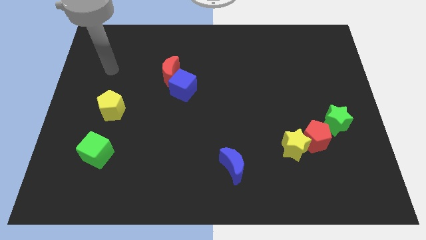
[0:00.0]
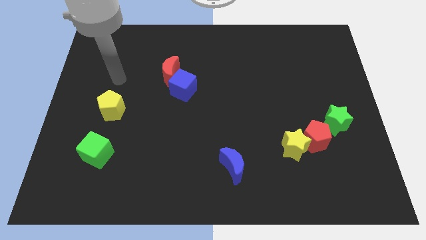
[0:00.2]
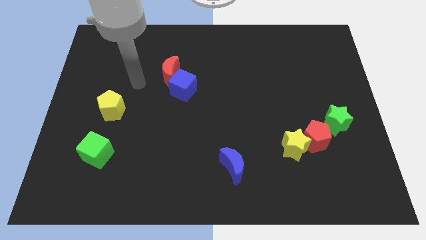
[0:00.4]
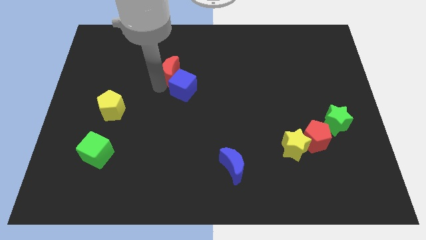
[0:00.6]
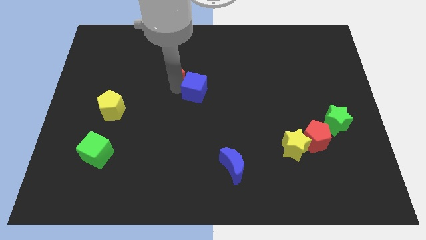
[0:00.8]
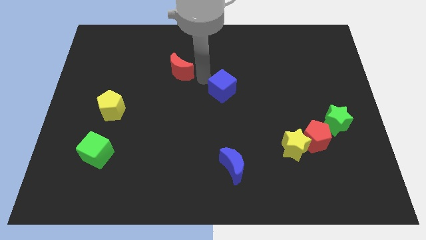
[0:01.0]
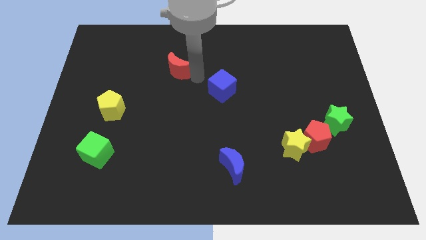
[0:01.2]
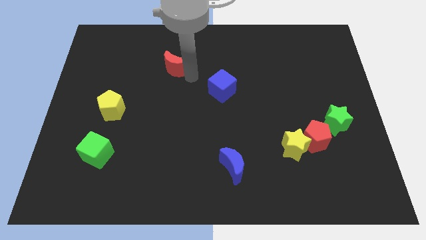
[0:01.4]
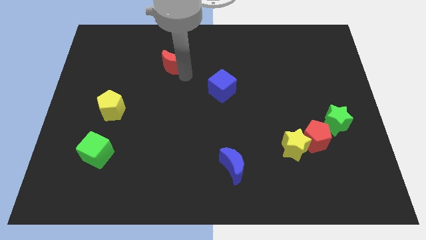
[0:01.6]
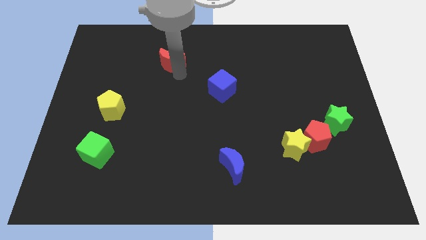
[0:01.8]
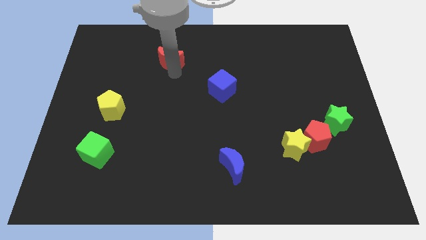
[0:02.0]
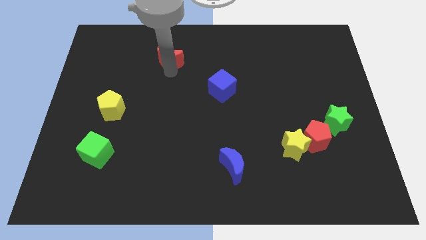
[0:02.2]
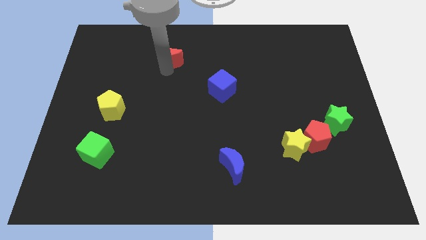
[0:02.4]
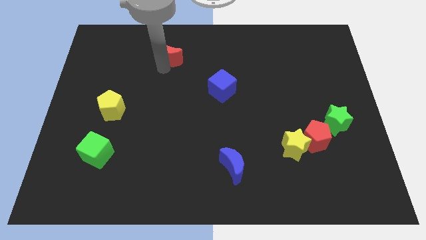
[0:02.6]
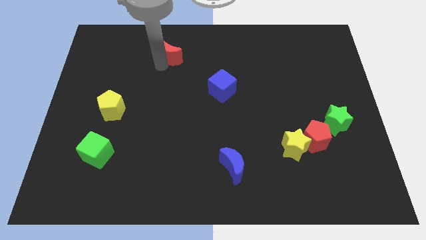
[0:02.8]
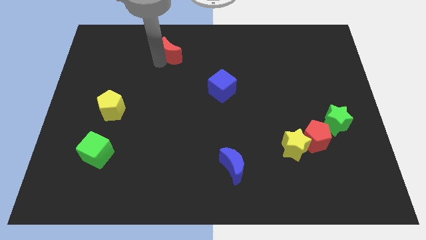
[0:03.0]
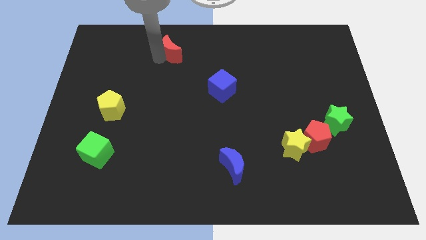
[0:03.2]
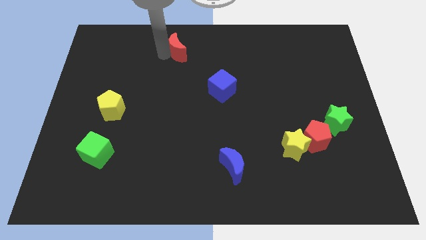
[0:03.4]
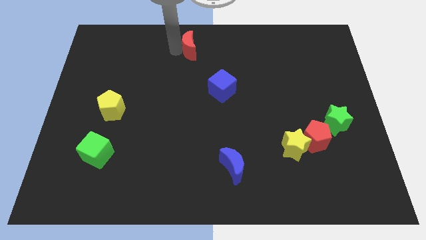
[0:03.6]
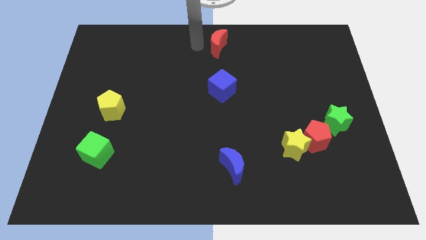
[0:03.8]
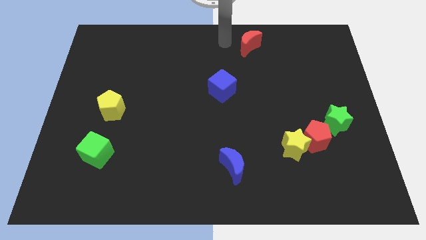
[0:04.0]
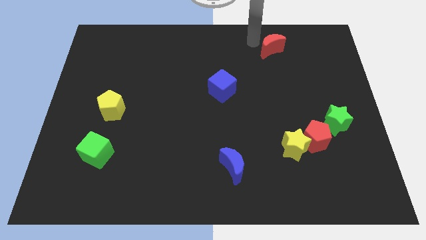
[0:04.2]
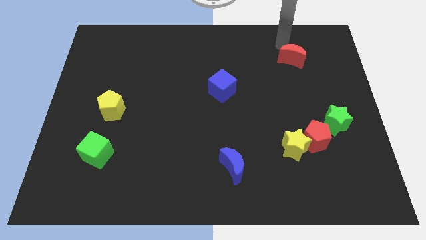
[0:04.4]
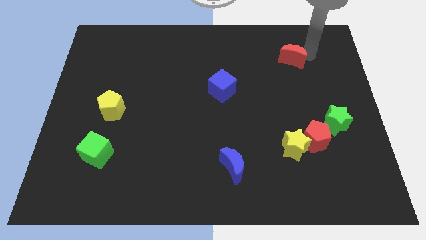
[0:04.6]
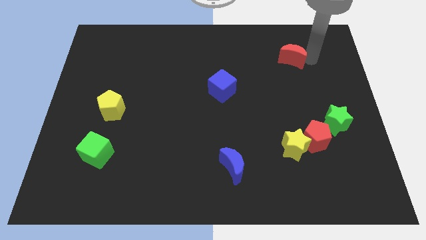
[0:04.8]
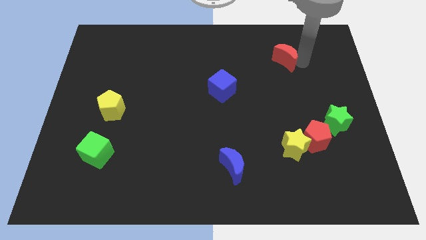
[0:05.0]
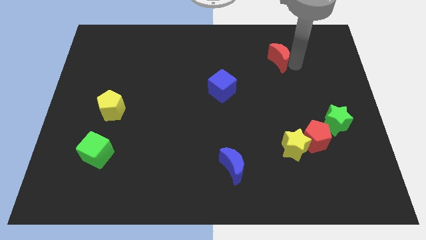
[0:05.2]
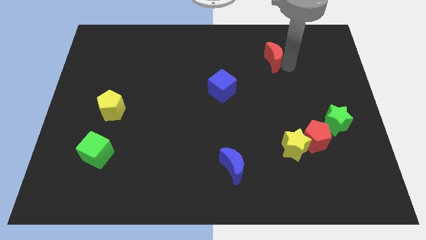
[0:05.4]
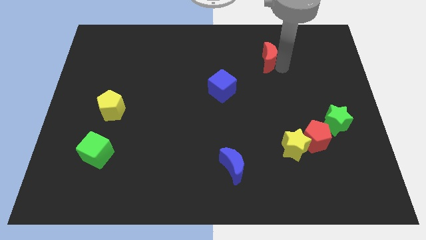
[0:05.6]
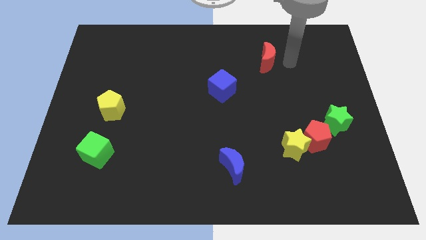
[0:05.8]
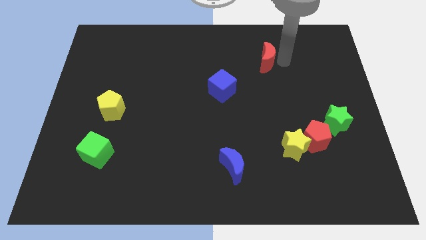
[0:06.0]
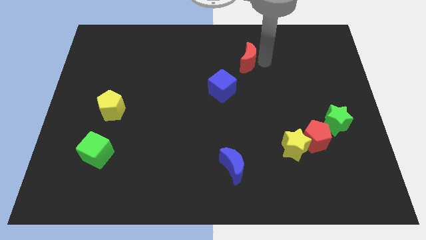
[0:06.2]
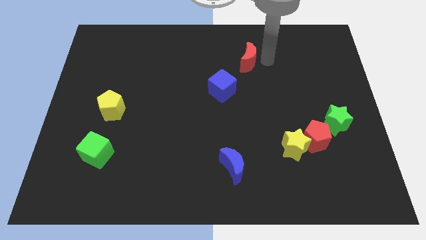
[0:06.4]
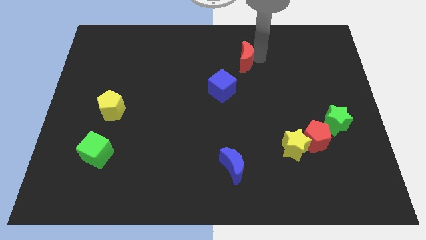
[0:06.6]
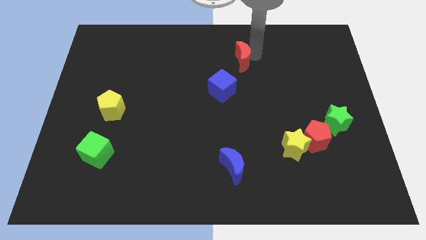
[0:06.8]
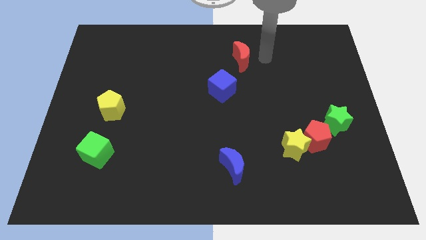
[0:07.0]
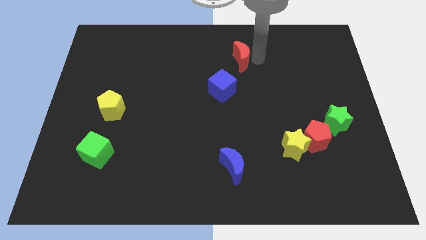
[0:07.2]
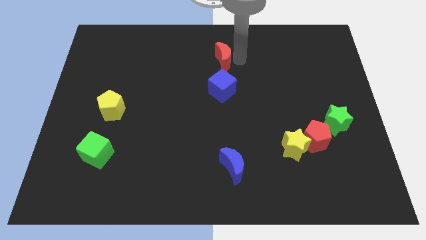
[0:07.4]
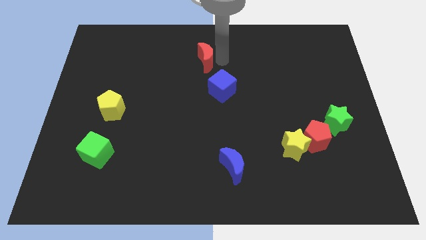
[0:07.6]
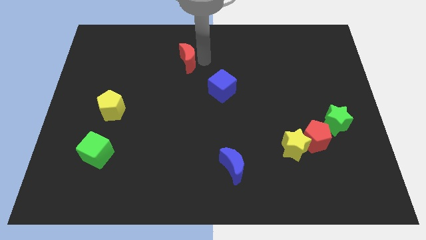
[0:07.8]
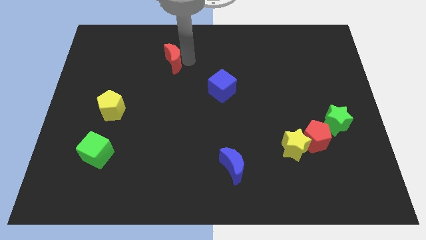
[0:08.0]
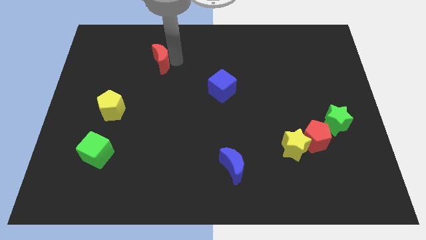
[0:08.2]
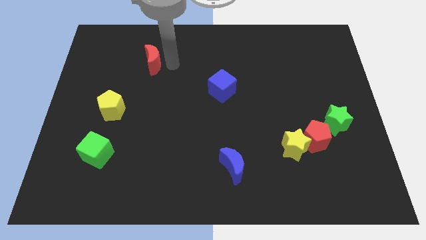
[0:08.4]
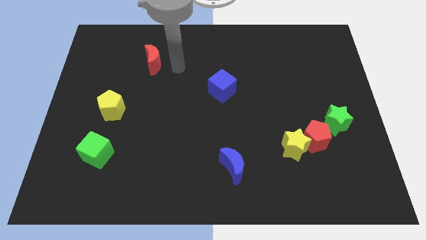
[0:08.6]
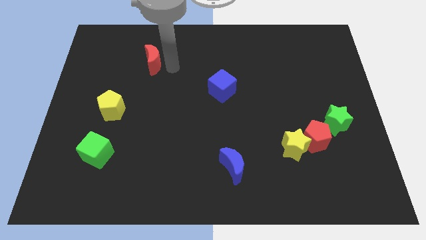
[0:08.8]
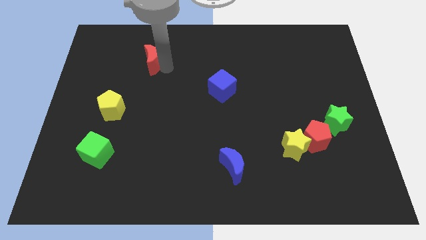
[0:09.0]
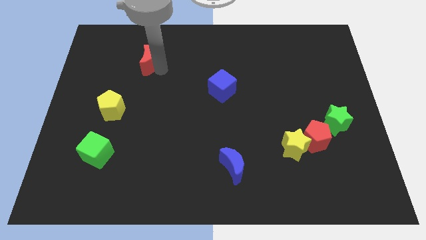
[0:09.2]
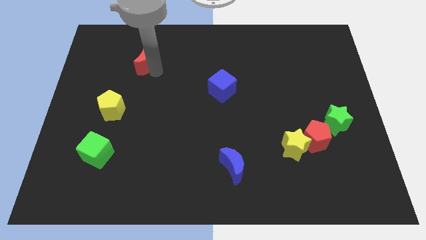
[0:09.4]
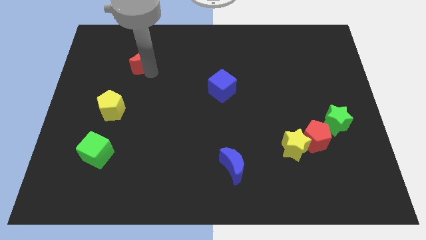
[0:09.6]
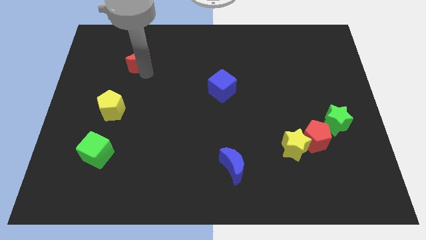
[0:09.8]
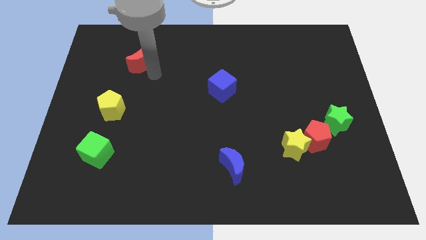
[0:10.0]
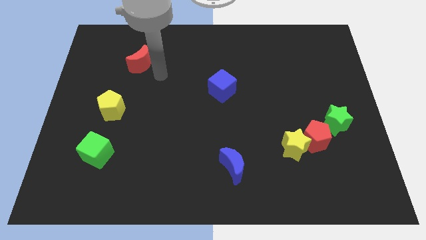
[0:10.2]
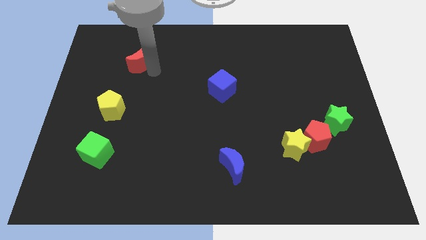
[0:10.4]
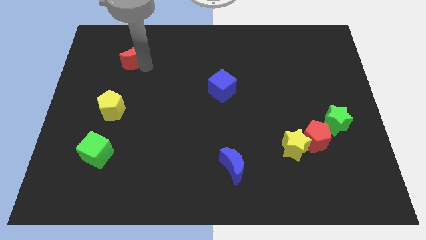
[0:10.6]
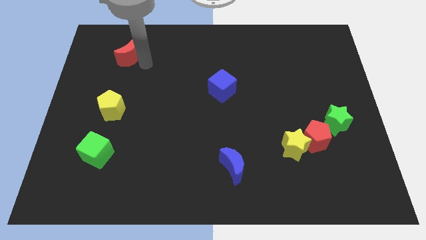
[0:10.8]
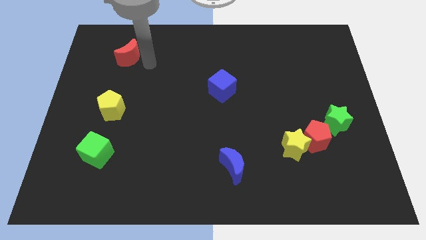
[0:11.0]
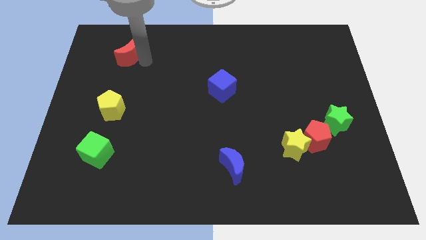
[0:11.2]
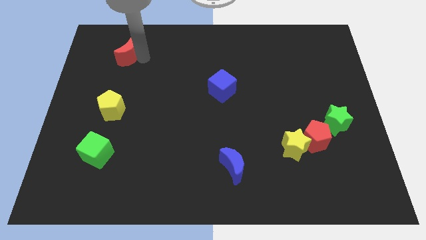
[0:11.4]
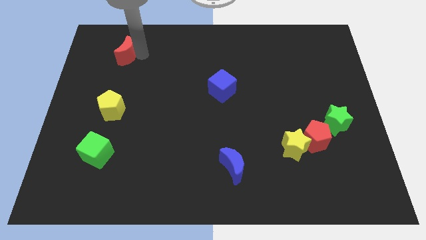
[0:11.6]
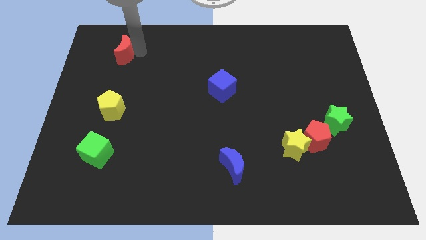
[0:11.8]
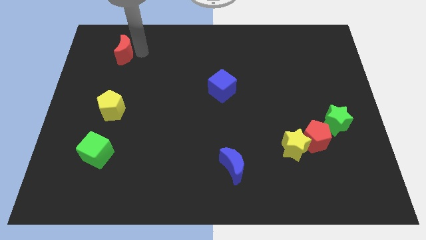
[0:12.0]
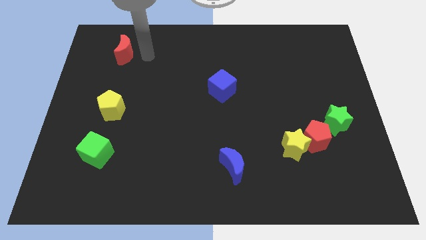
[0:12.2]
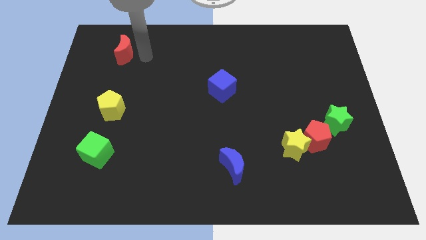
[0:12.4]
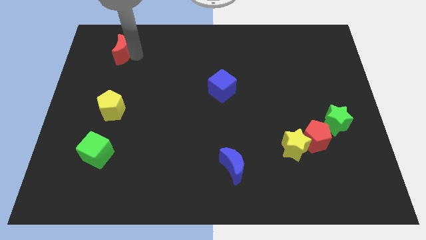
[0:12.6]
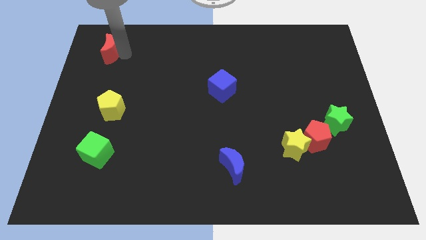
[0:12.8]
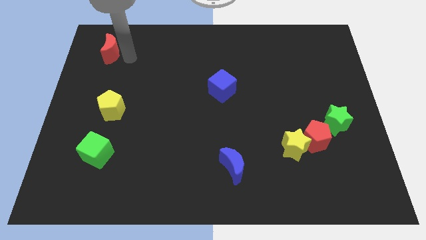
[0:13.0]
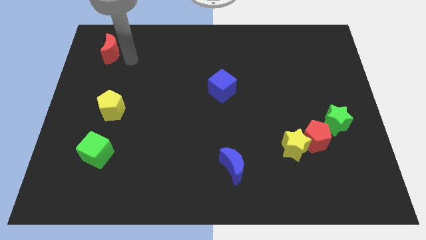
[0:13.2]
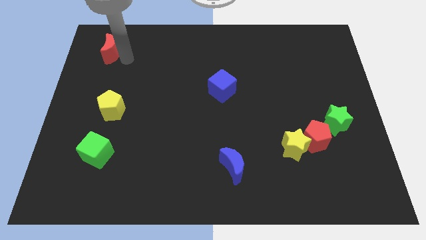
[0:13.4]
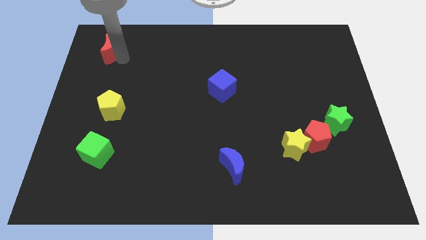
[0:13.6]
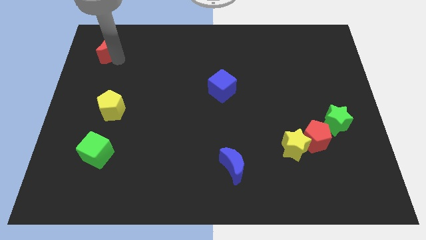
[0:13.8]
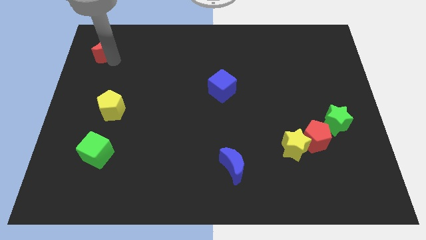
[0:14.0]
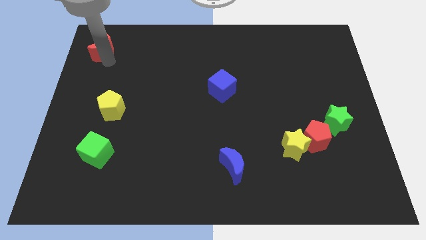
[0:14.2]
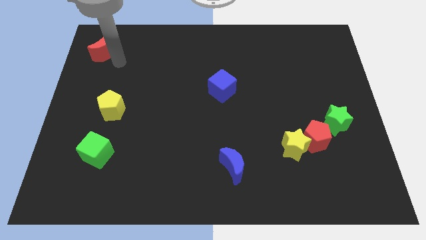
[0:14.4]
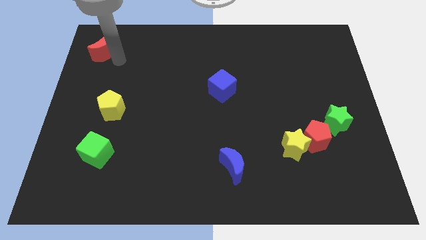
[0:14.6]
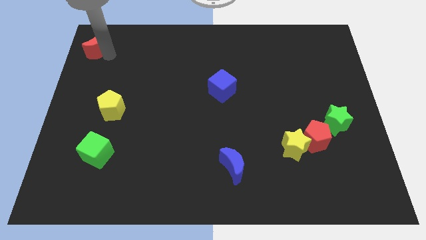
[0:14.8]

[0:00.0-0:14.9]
move the red moon to the upper left corner
